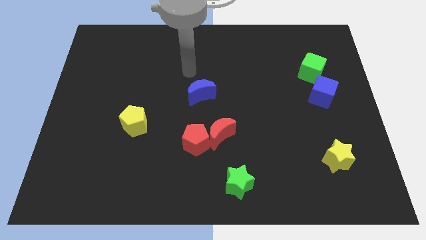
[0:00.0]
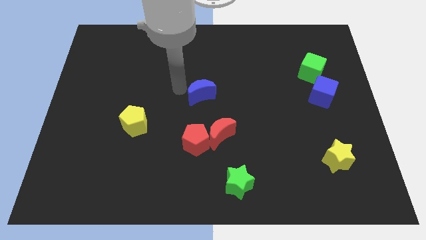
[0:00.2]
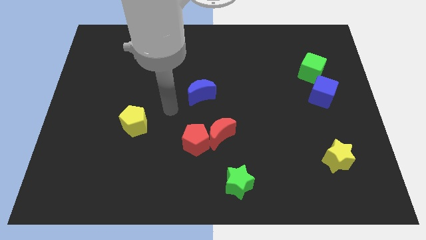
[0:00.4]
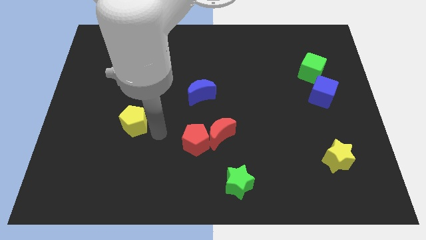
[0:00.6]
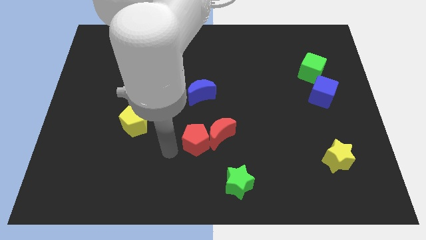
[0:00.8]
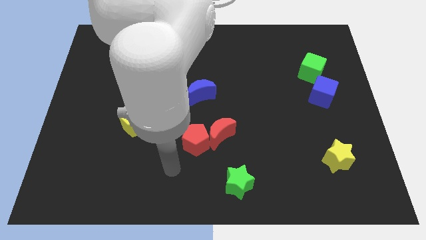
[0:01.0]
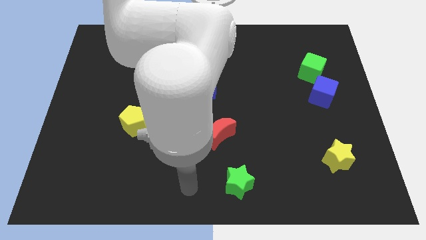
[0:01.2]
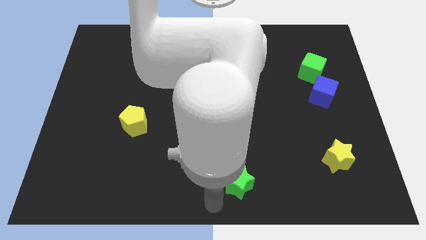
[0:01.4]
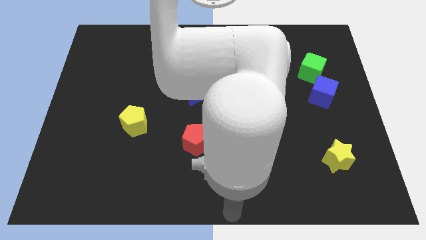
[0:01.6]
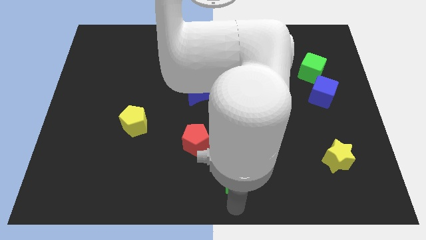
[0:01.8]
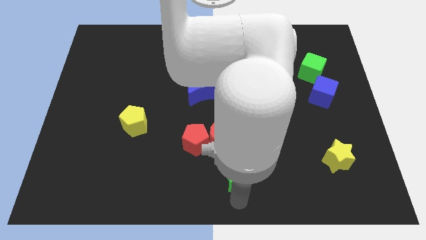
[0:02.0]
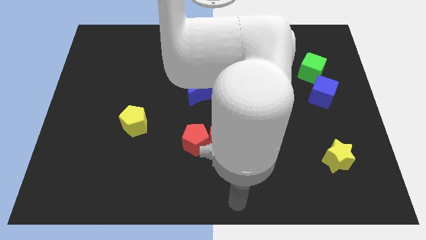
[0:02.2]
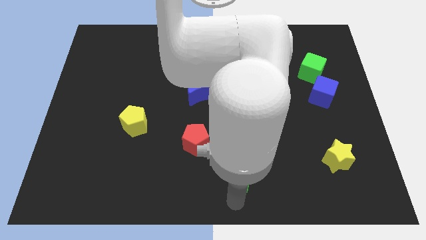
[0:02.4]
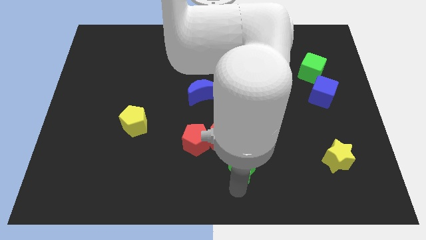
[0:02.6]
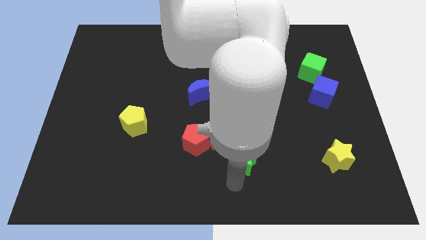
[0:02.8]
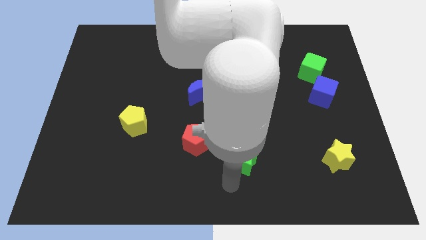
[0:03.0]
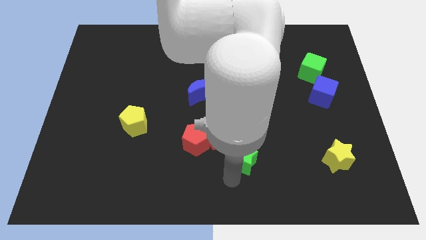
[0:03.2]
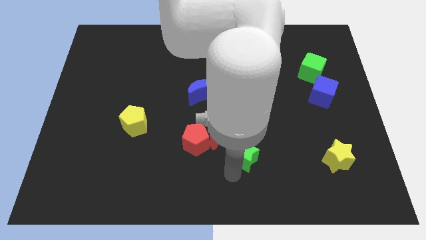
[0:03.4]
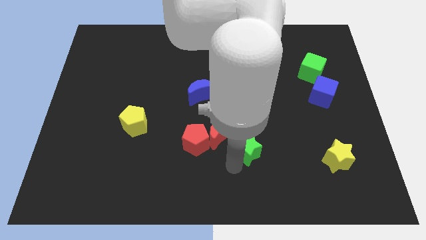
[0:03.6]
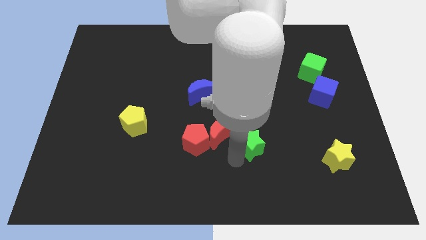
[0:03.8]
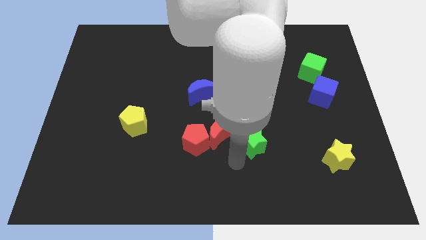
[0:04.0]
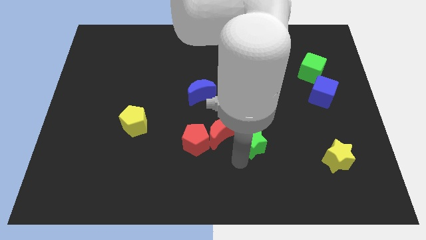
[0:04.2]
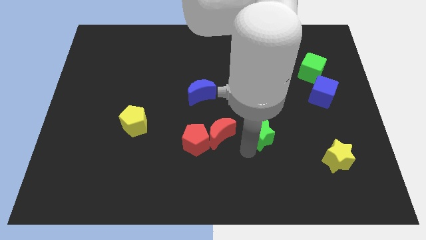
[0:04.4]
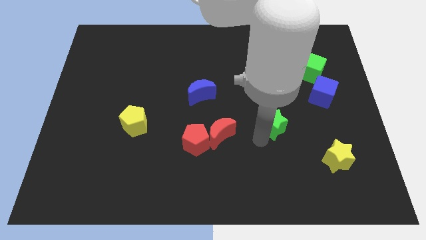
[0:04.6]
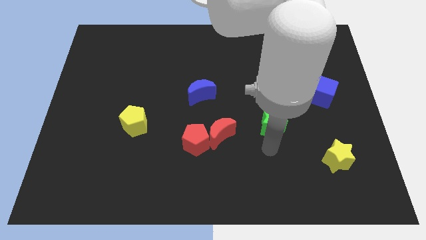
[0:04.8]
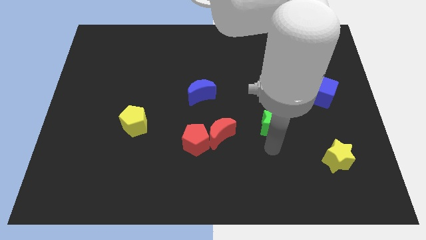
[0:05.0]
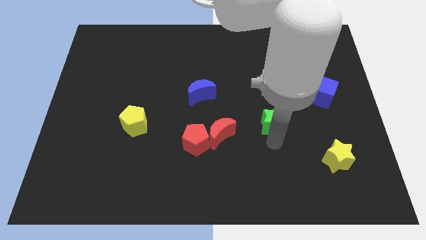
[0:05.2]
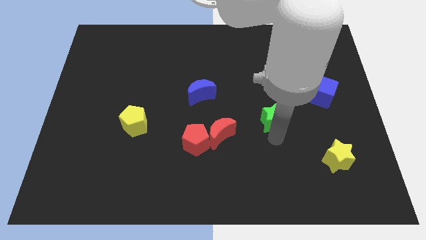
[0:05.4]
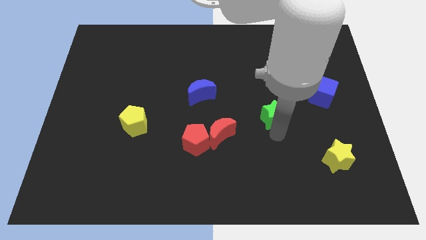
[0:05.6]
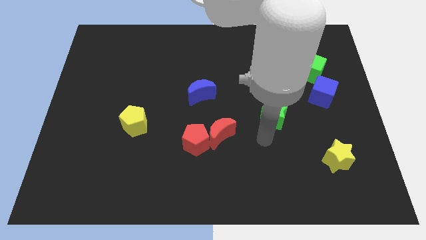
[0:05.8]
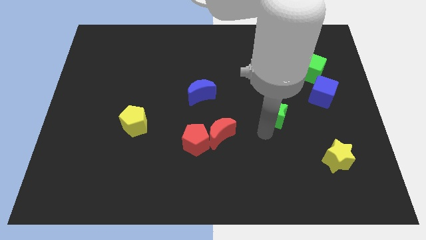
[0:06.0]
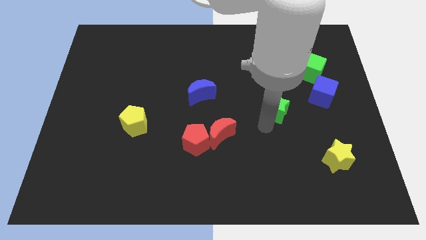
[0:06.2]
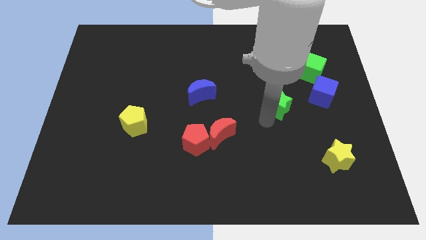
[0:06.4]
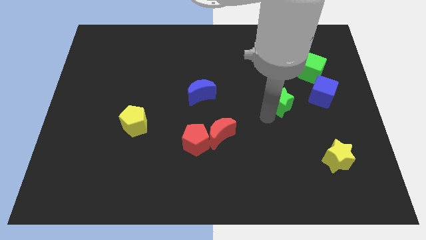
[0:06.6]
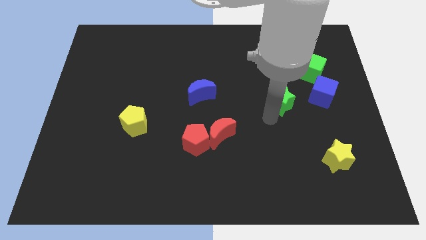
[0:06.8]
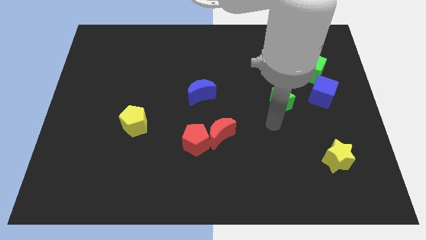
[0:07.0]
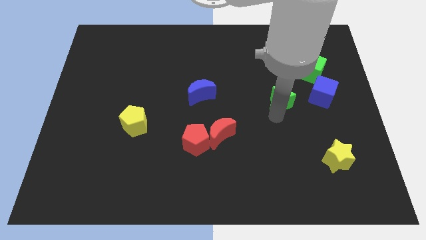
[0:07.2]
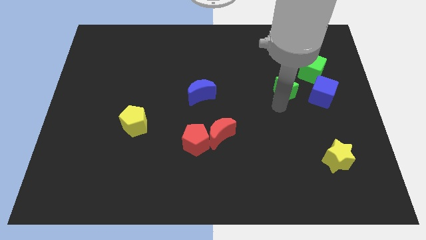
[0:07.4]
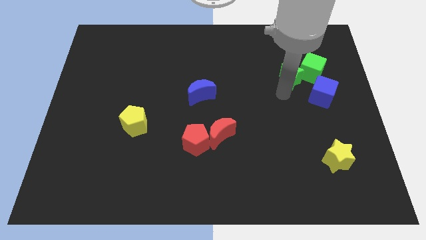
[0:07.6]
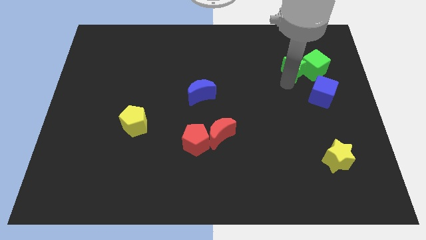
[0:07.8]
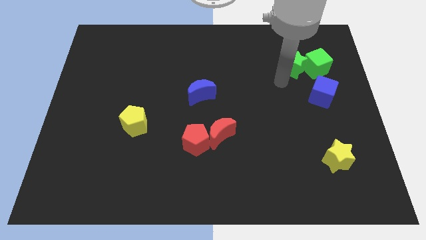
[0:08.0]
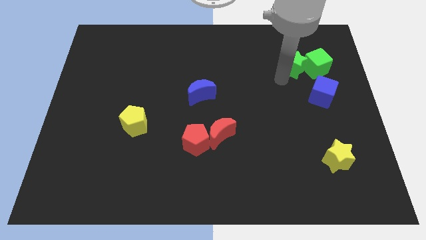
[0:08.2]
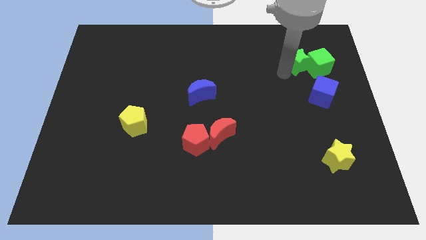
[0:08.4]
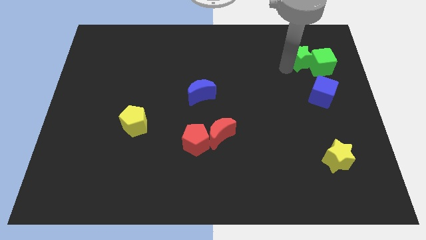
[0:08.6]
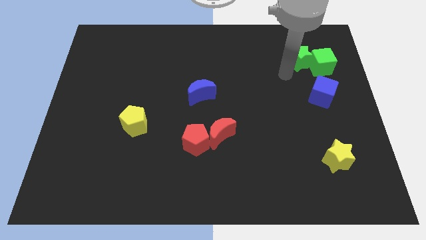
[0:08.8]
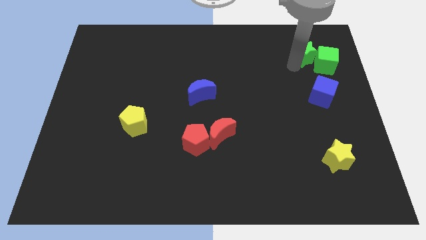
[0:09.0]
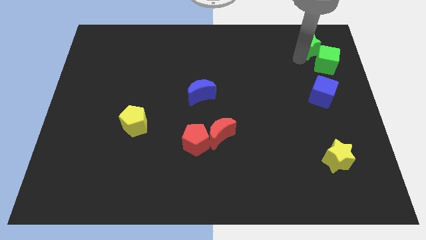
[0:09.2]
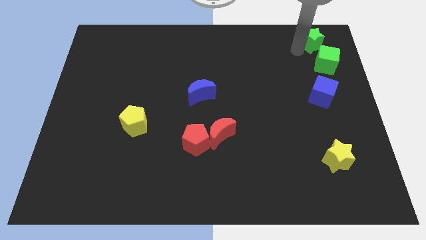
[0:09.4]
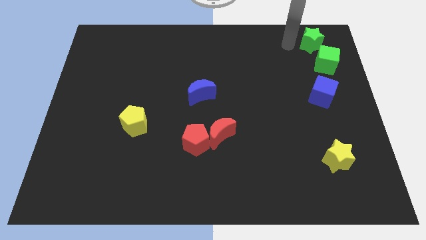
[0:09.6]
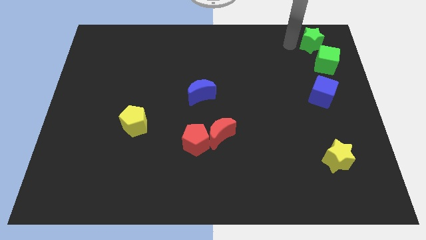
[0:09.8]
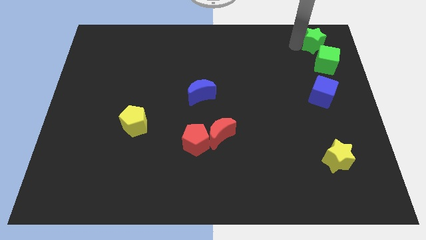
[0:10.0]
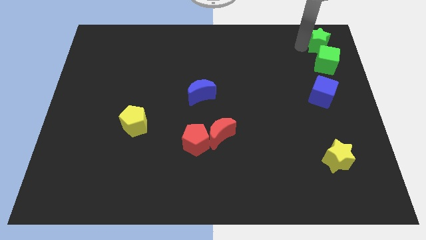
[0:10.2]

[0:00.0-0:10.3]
move the green star to the top right corner

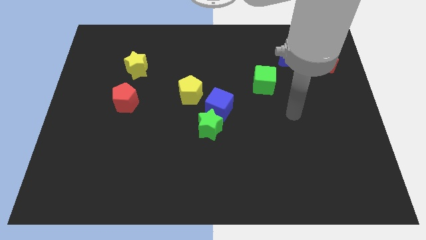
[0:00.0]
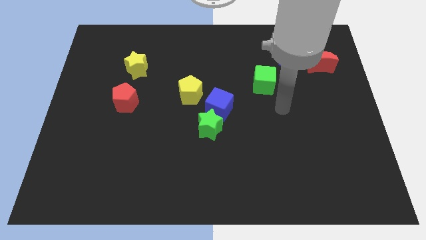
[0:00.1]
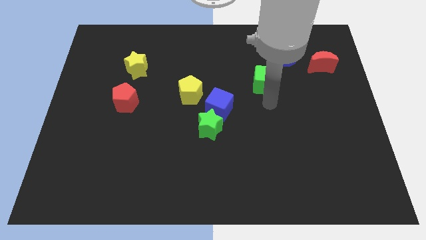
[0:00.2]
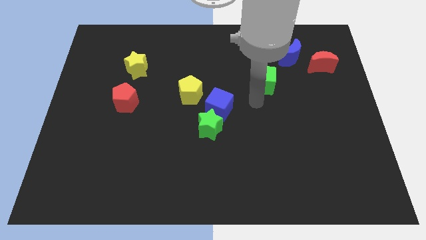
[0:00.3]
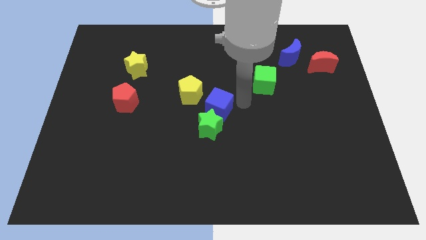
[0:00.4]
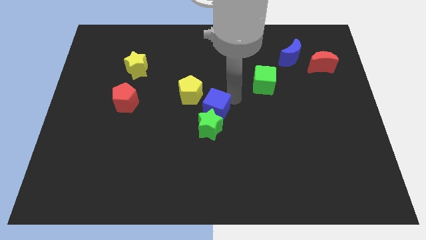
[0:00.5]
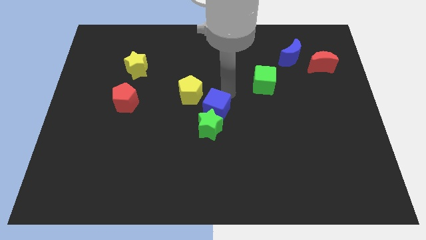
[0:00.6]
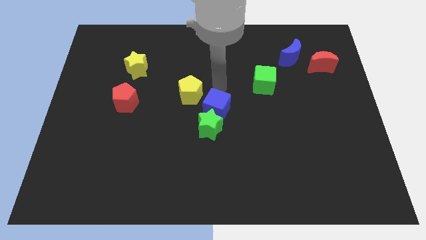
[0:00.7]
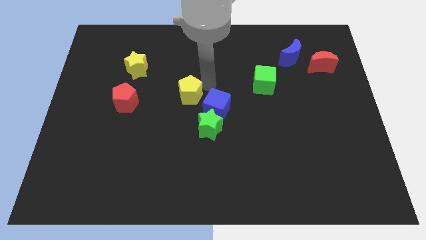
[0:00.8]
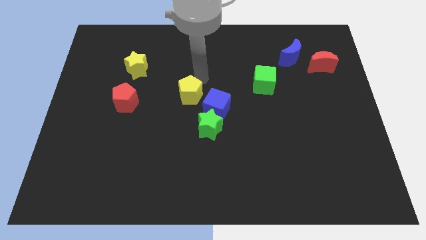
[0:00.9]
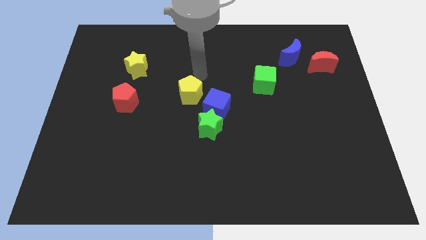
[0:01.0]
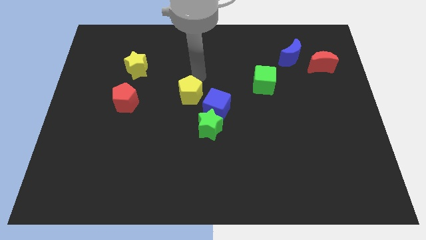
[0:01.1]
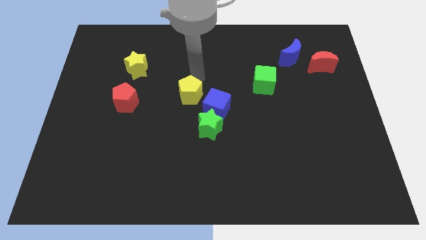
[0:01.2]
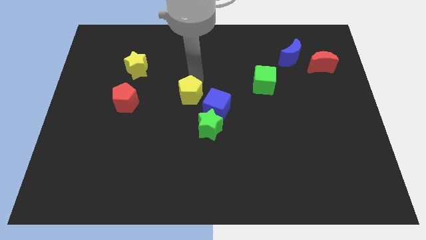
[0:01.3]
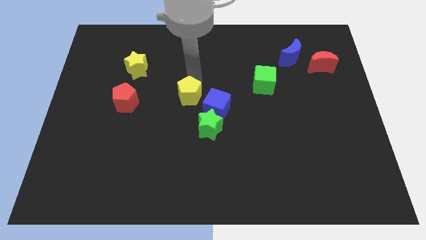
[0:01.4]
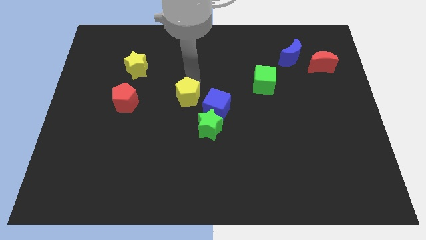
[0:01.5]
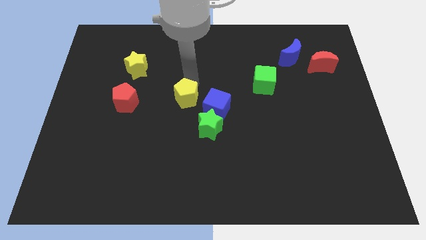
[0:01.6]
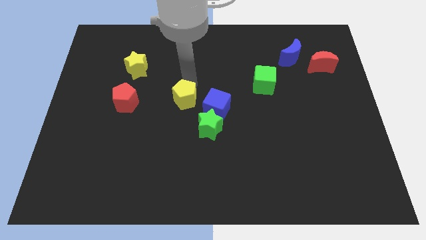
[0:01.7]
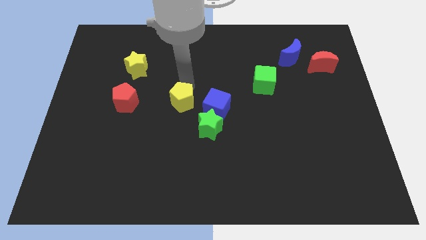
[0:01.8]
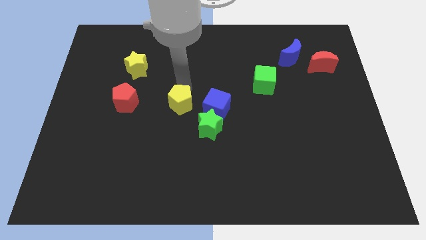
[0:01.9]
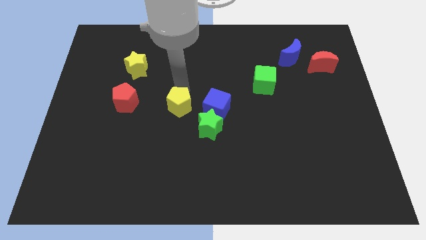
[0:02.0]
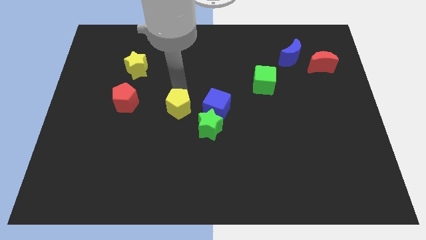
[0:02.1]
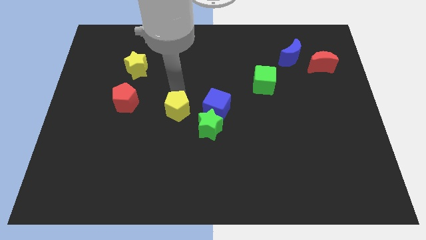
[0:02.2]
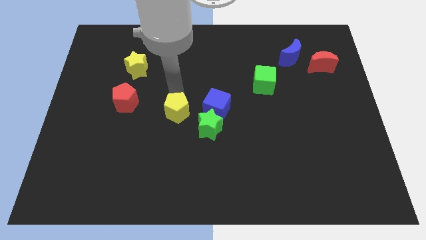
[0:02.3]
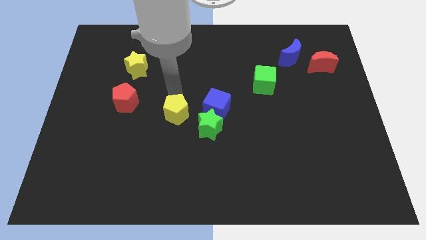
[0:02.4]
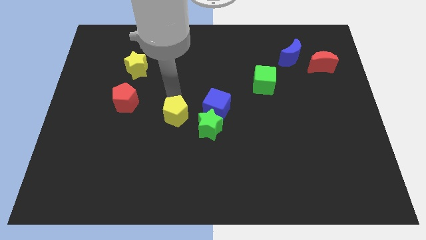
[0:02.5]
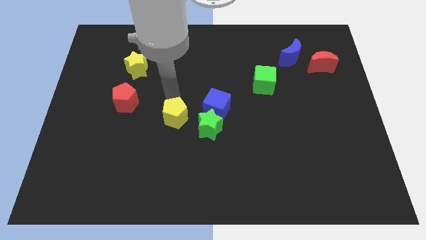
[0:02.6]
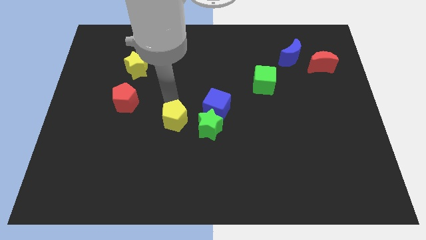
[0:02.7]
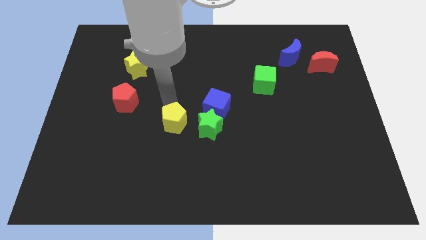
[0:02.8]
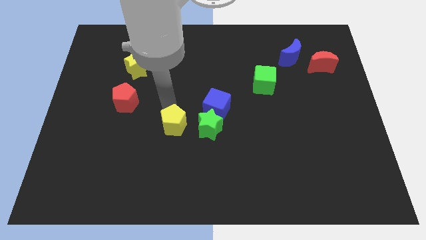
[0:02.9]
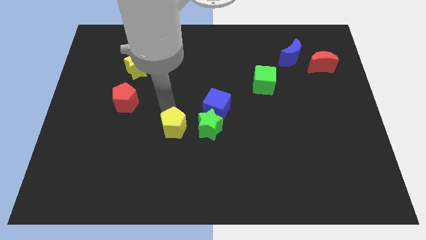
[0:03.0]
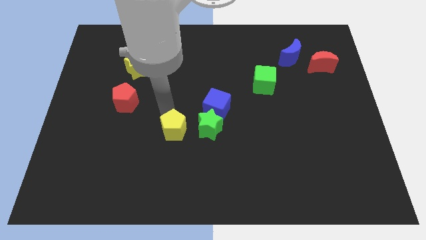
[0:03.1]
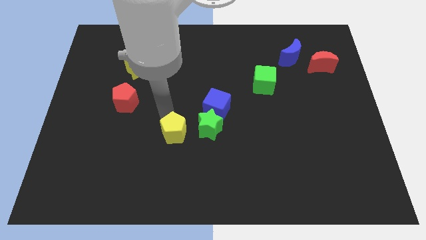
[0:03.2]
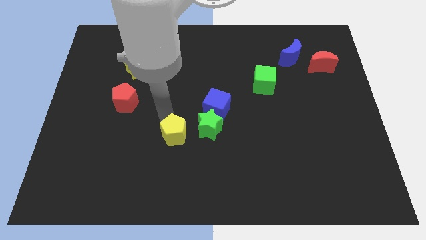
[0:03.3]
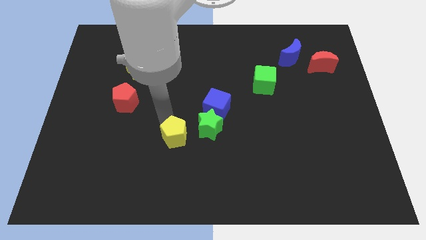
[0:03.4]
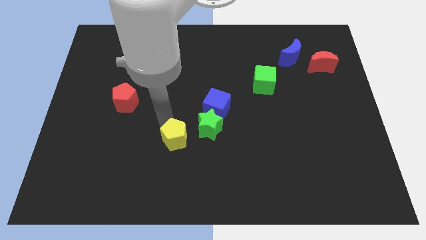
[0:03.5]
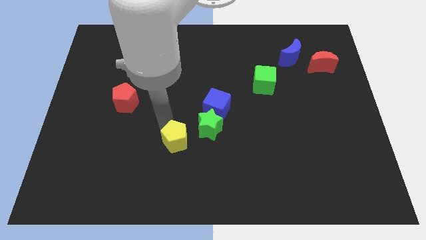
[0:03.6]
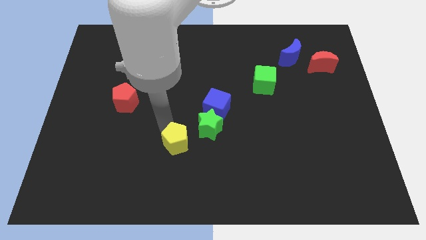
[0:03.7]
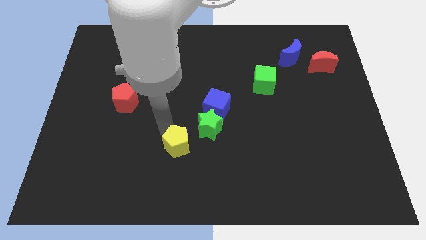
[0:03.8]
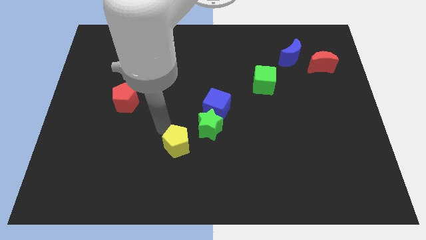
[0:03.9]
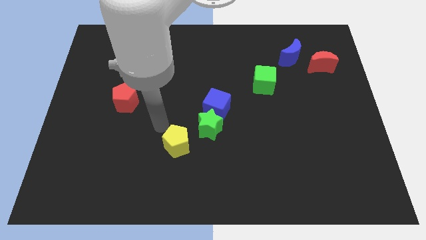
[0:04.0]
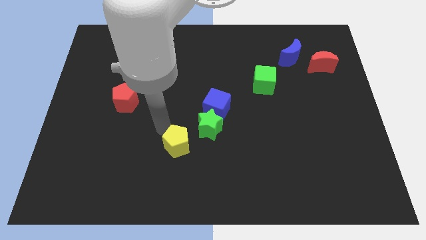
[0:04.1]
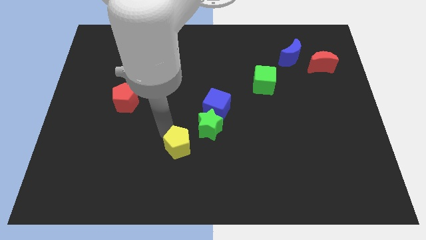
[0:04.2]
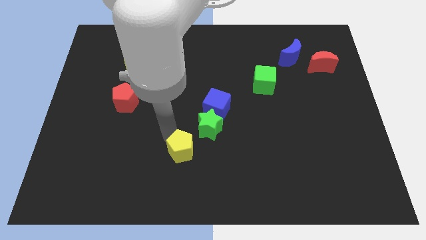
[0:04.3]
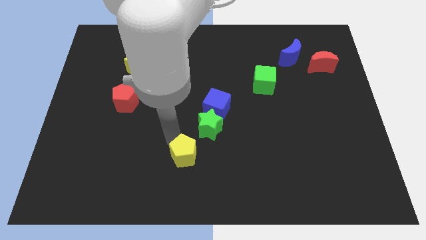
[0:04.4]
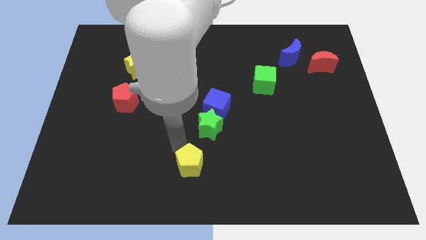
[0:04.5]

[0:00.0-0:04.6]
move the yellow pentagon to the bottom
